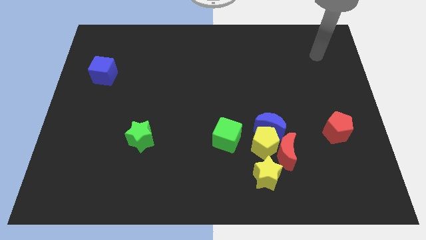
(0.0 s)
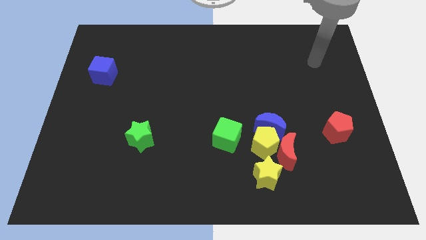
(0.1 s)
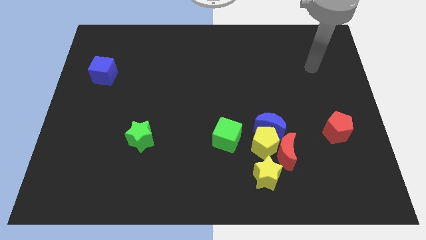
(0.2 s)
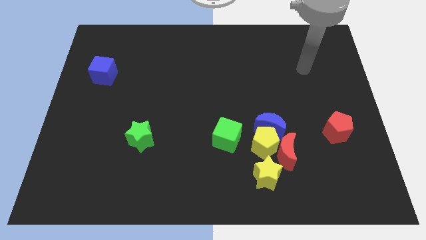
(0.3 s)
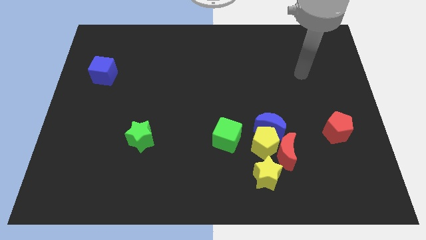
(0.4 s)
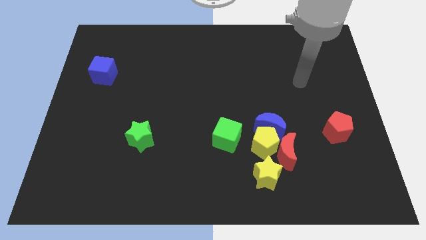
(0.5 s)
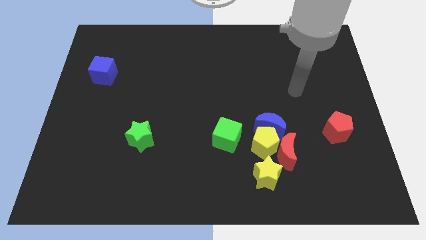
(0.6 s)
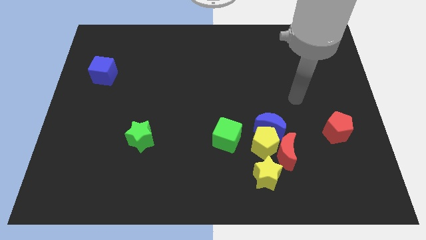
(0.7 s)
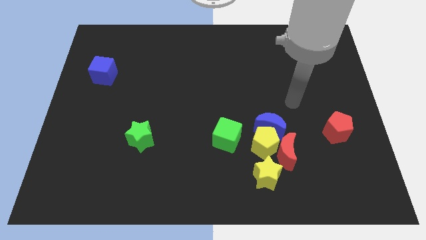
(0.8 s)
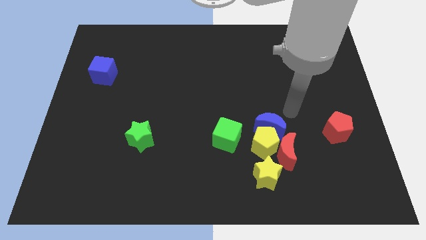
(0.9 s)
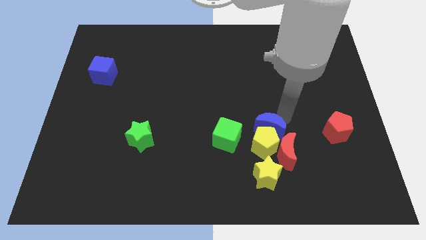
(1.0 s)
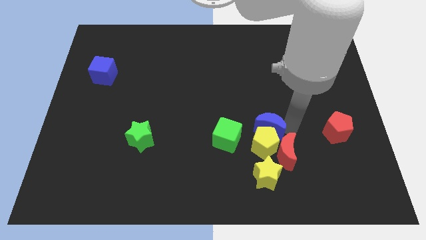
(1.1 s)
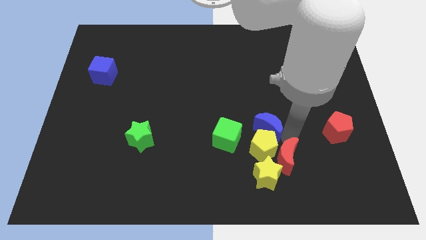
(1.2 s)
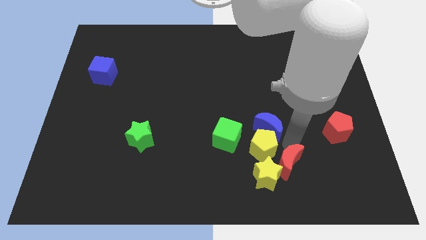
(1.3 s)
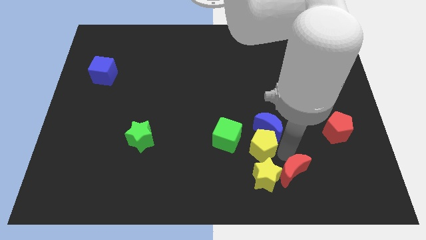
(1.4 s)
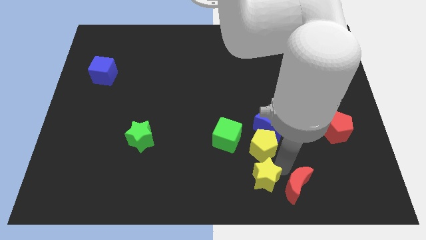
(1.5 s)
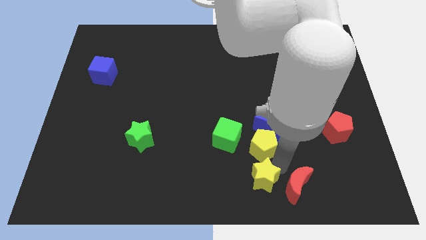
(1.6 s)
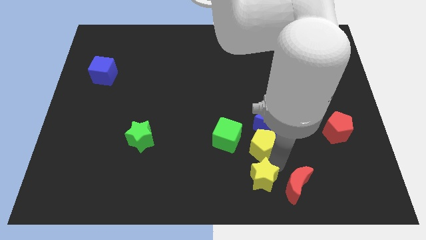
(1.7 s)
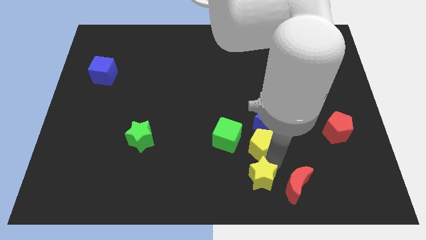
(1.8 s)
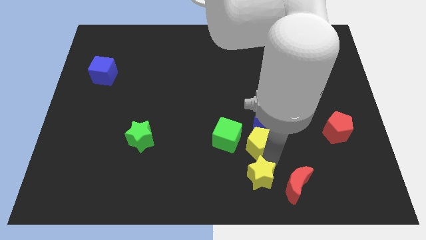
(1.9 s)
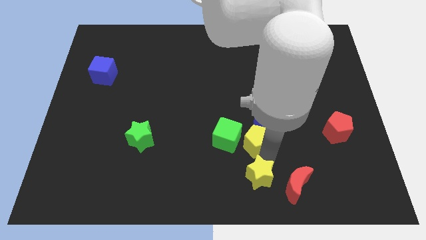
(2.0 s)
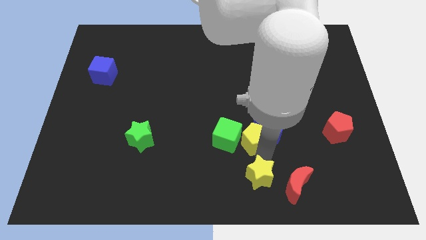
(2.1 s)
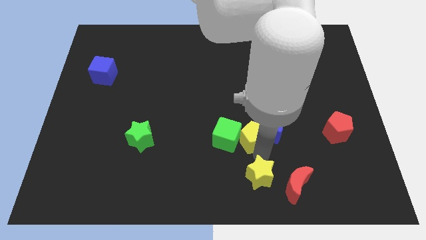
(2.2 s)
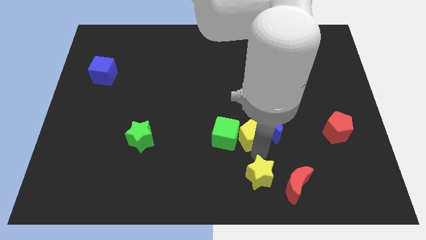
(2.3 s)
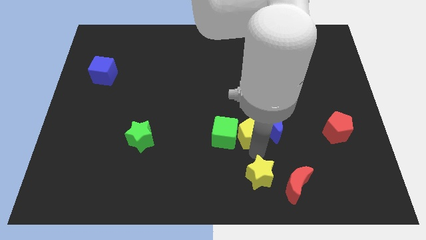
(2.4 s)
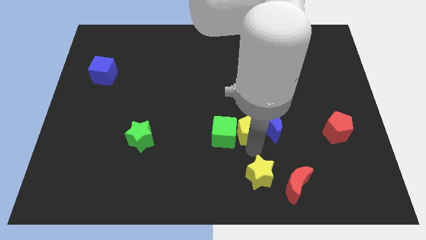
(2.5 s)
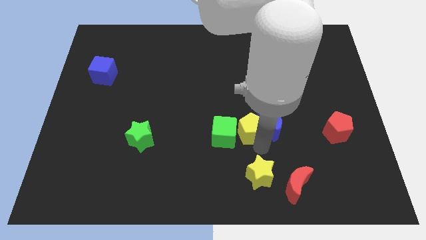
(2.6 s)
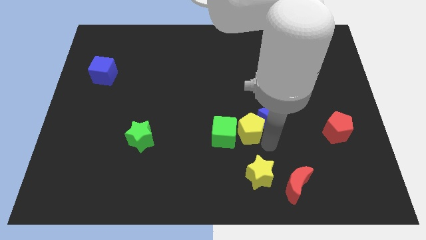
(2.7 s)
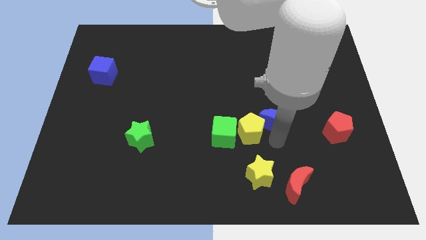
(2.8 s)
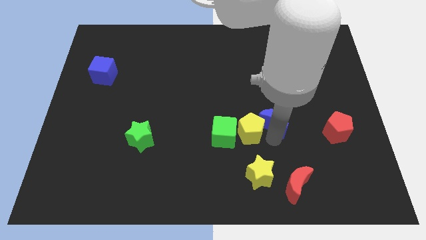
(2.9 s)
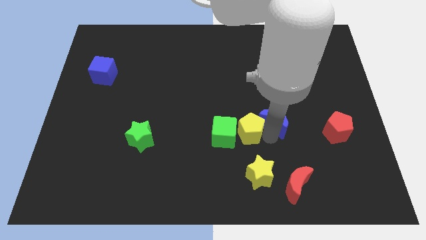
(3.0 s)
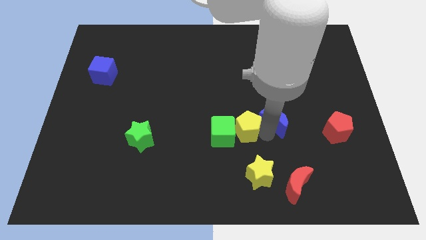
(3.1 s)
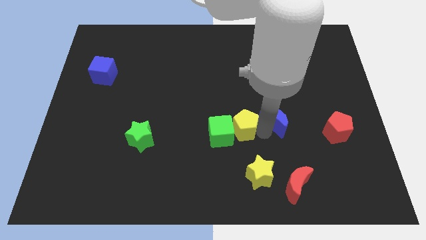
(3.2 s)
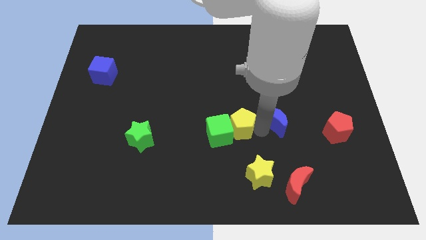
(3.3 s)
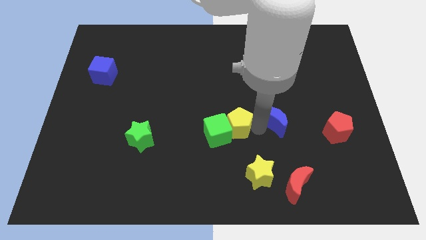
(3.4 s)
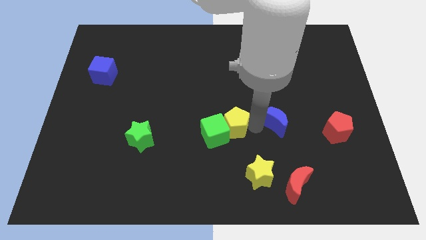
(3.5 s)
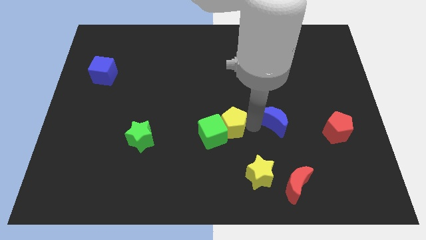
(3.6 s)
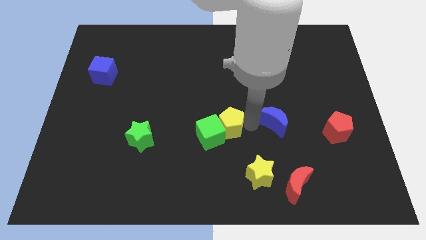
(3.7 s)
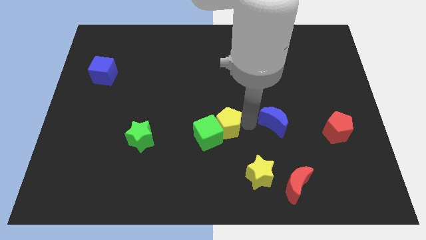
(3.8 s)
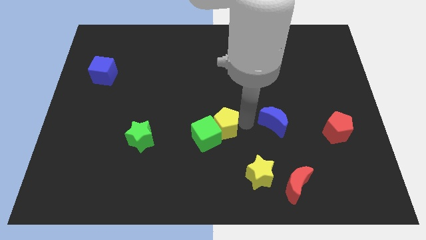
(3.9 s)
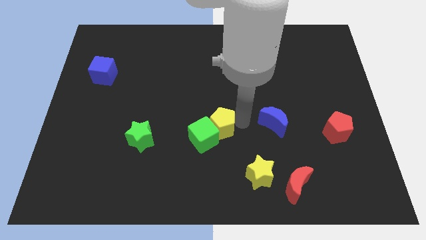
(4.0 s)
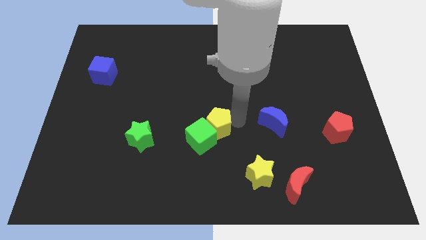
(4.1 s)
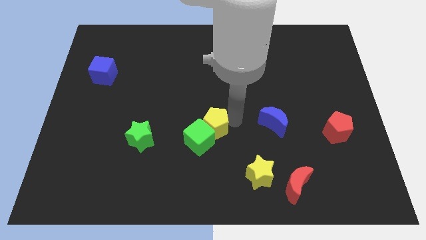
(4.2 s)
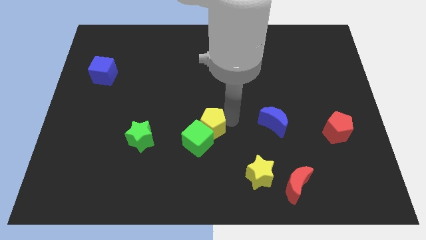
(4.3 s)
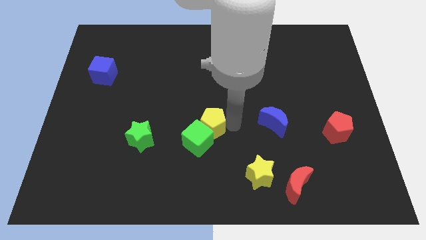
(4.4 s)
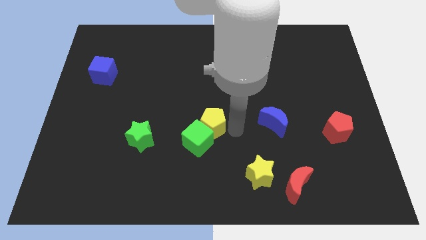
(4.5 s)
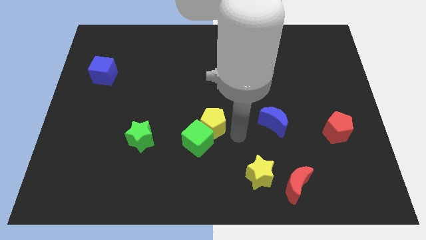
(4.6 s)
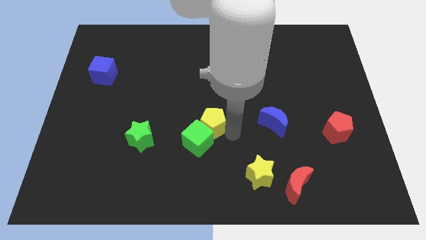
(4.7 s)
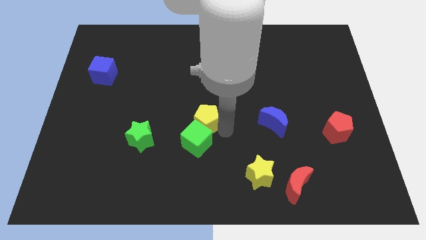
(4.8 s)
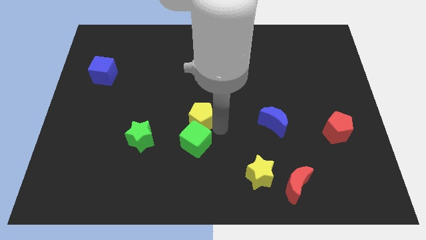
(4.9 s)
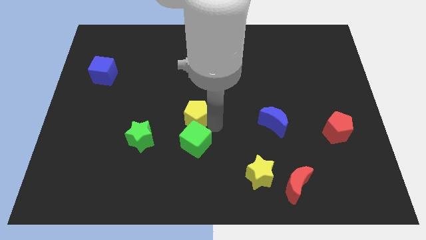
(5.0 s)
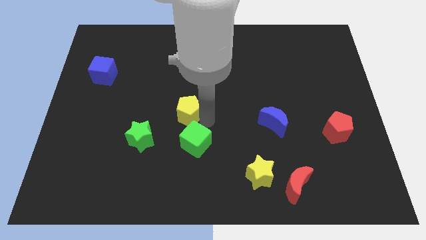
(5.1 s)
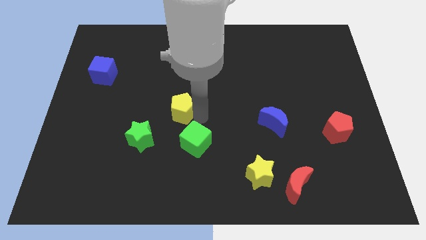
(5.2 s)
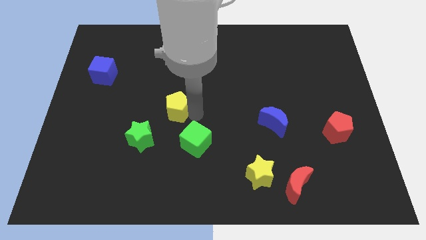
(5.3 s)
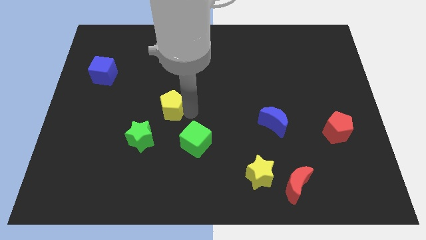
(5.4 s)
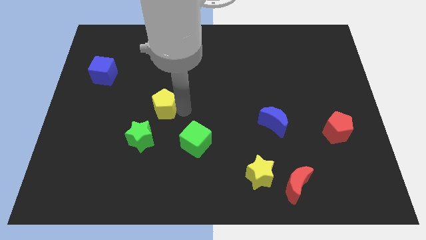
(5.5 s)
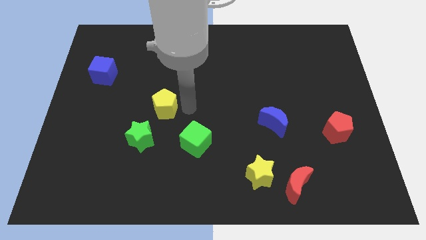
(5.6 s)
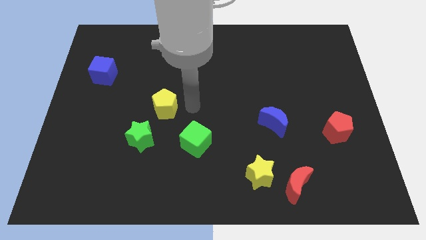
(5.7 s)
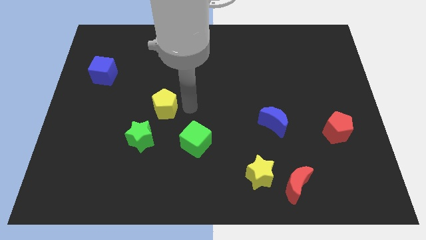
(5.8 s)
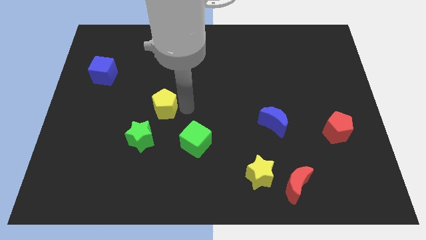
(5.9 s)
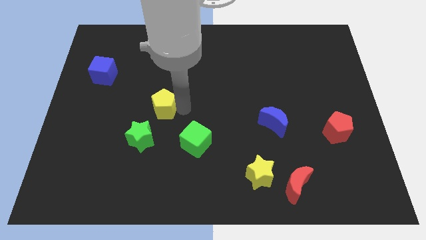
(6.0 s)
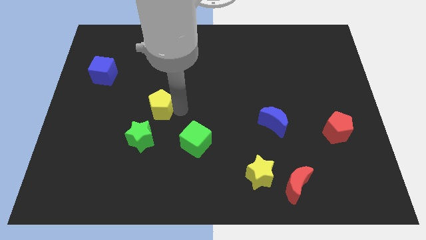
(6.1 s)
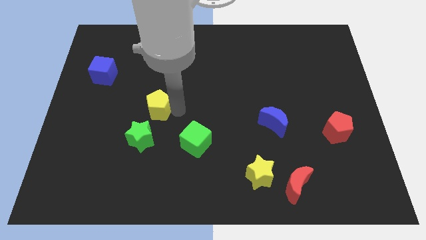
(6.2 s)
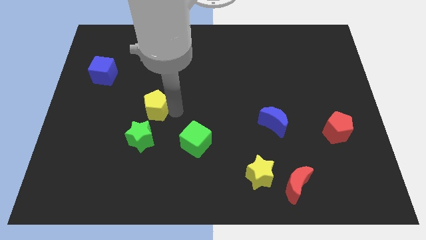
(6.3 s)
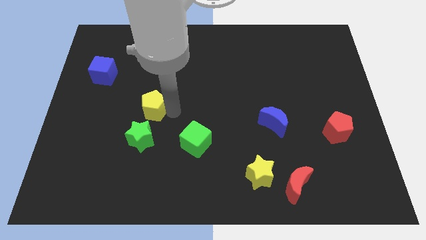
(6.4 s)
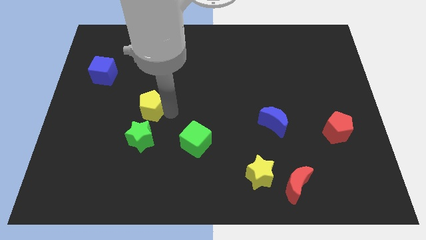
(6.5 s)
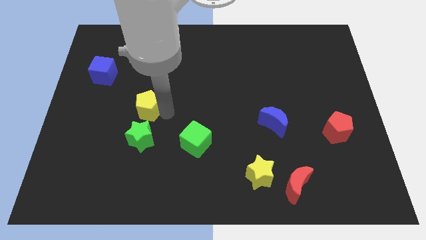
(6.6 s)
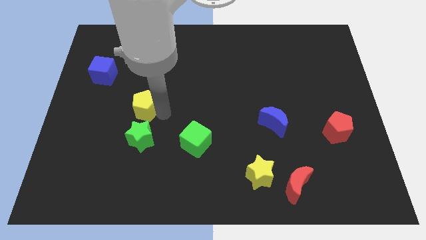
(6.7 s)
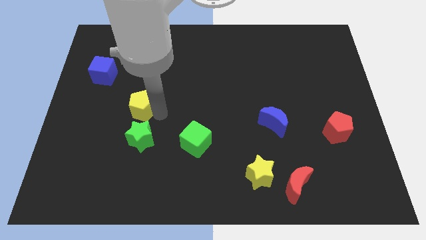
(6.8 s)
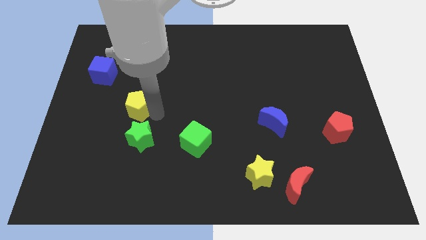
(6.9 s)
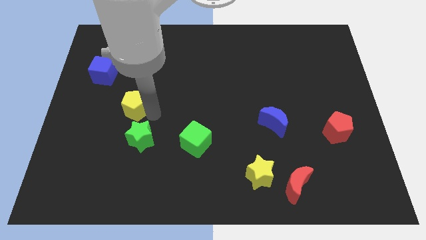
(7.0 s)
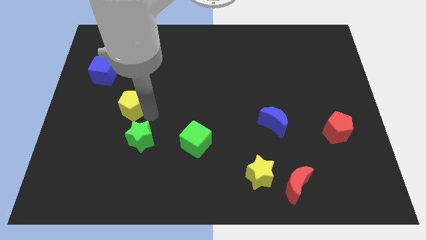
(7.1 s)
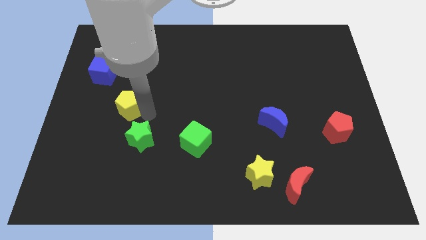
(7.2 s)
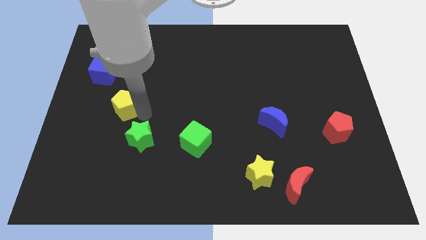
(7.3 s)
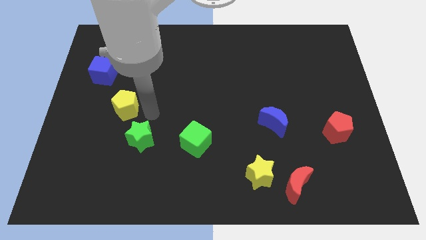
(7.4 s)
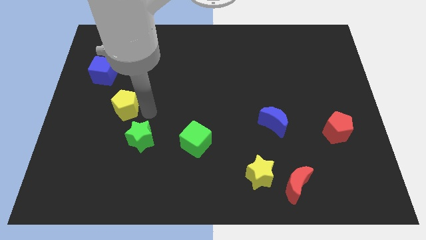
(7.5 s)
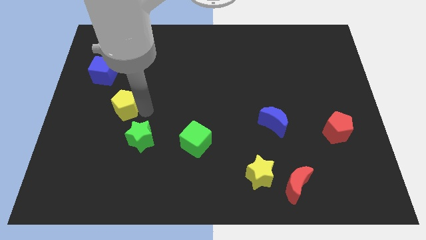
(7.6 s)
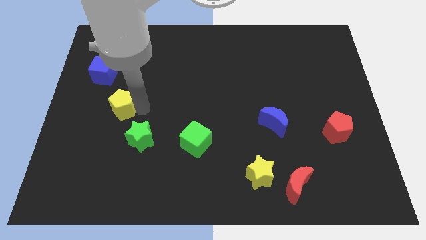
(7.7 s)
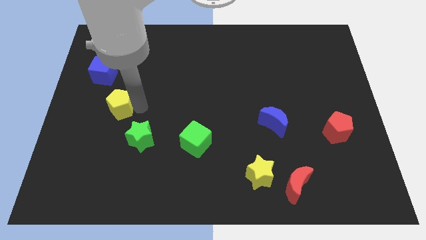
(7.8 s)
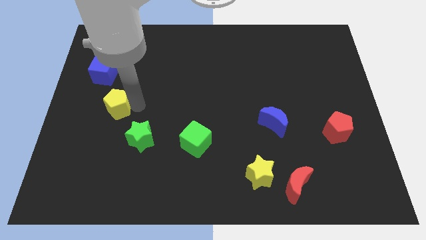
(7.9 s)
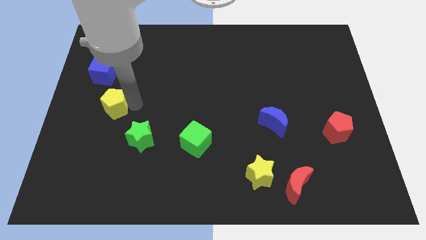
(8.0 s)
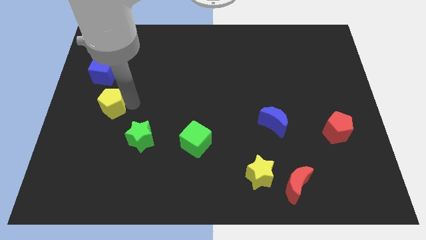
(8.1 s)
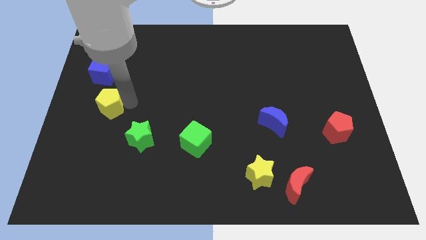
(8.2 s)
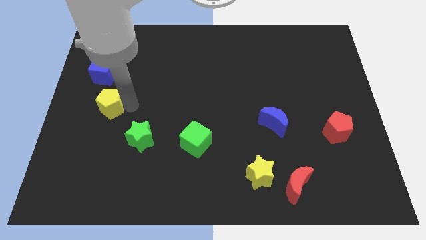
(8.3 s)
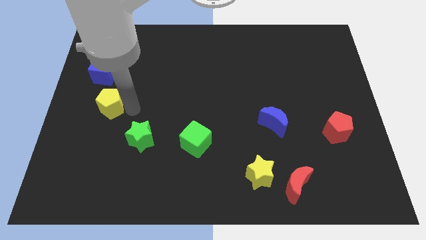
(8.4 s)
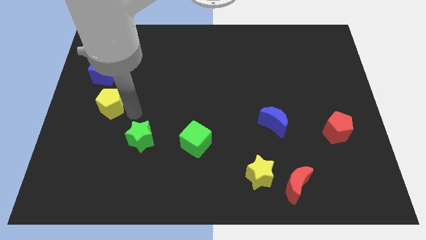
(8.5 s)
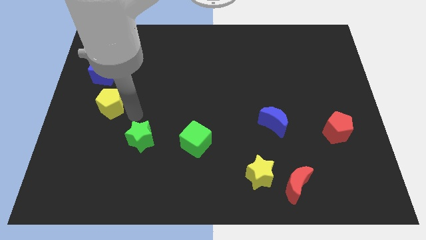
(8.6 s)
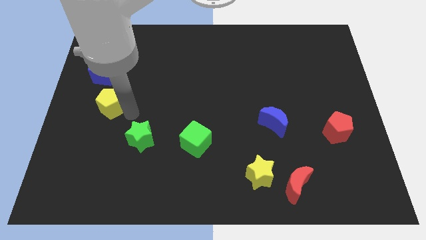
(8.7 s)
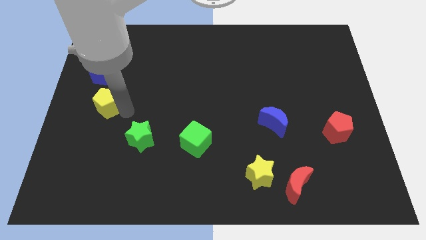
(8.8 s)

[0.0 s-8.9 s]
put the yellow pentagon to the left side
